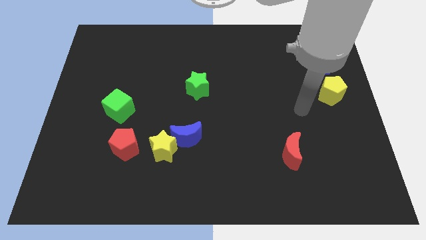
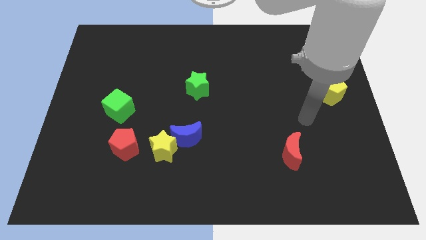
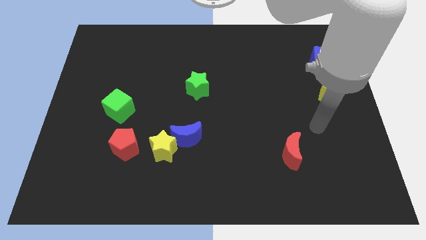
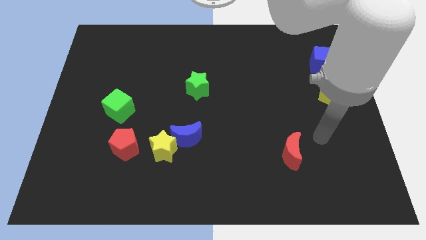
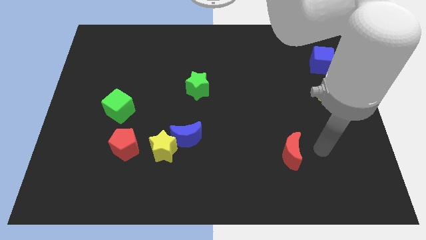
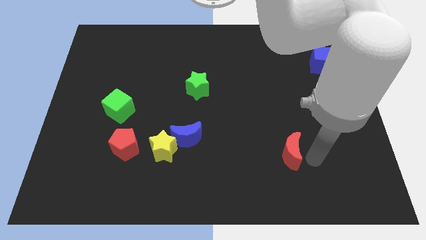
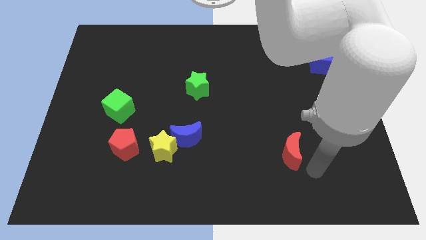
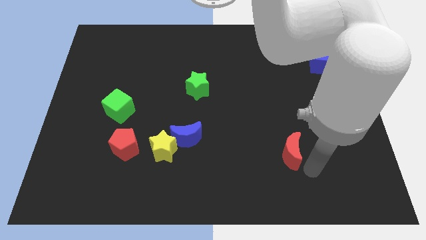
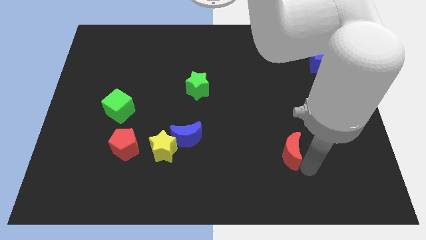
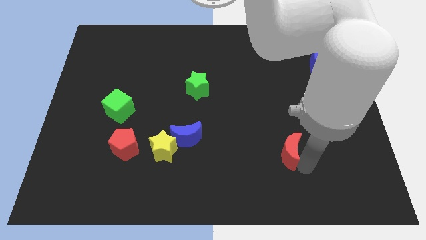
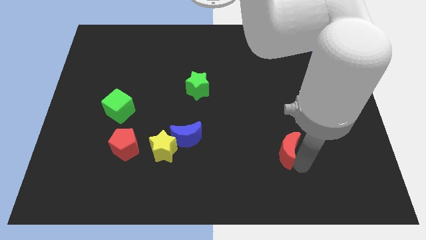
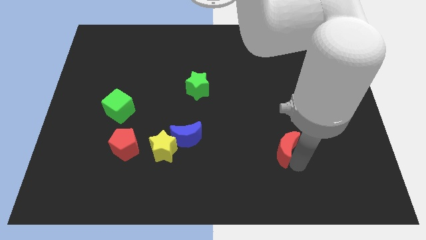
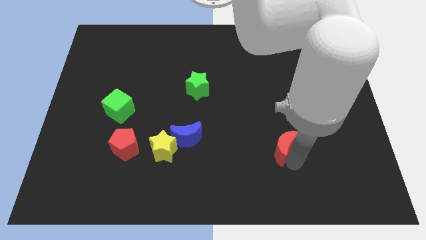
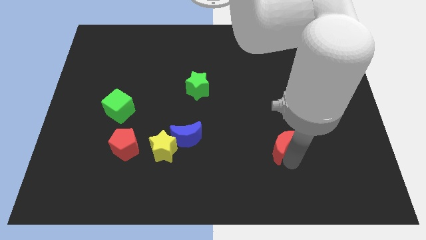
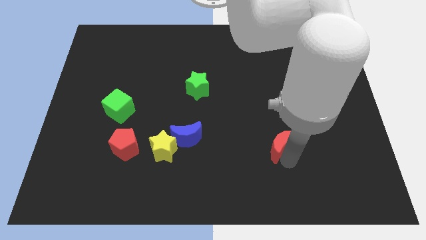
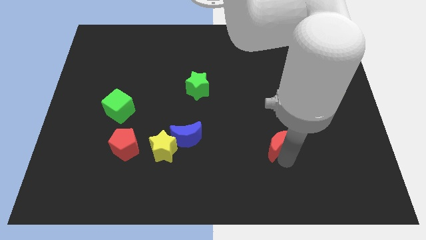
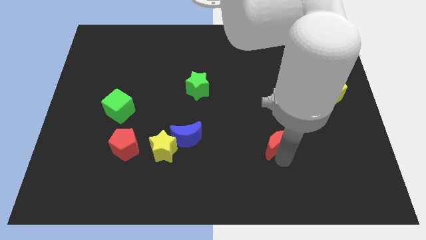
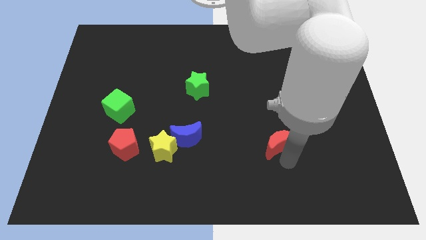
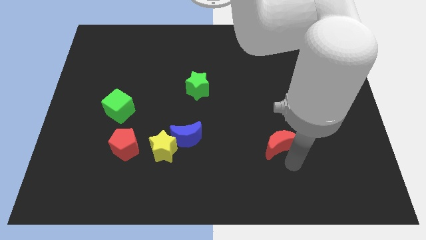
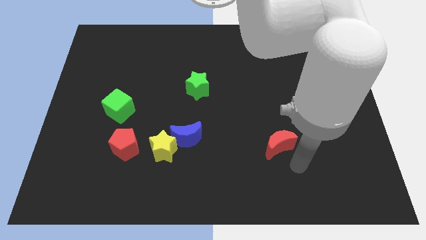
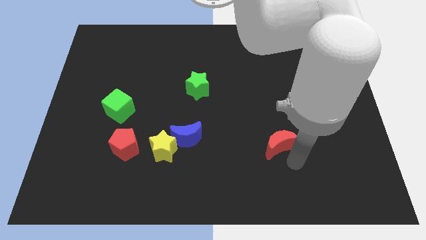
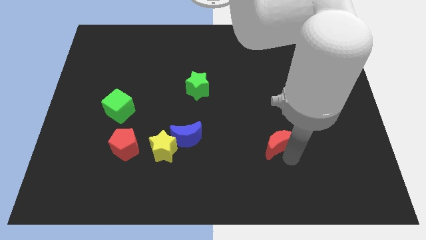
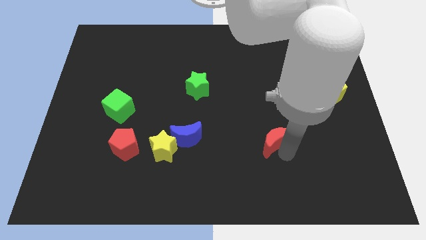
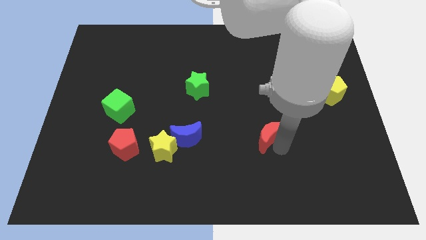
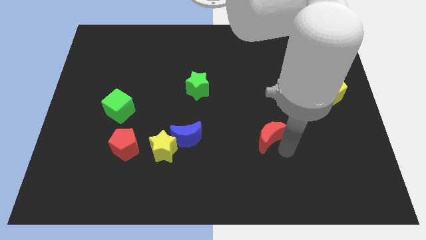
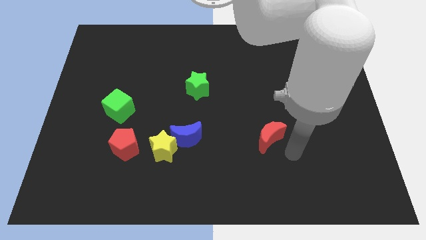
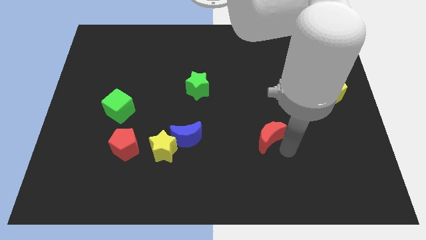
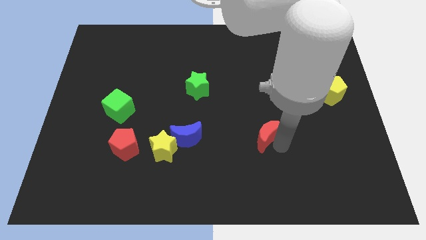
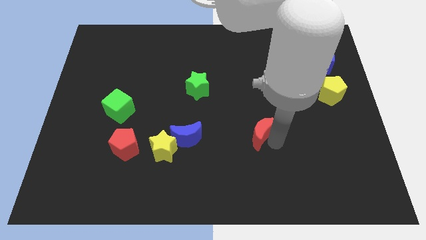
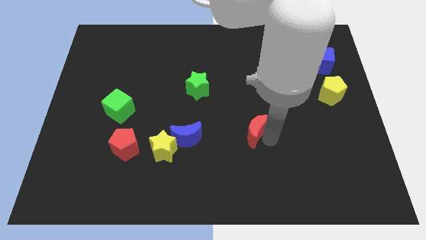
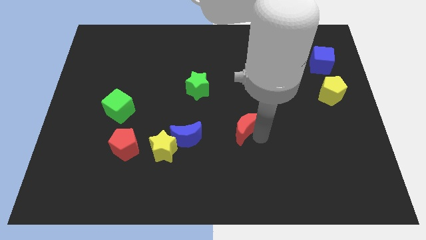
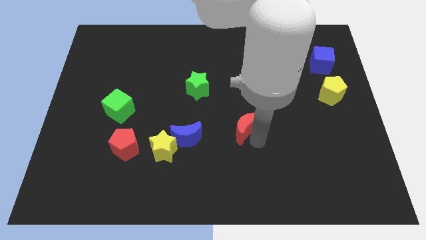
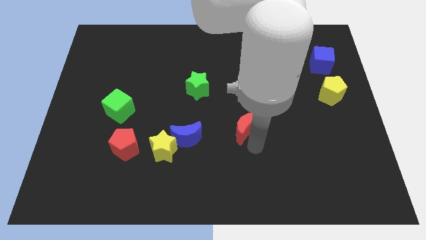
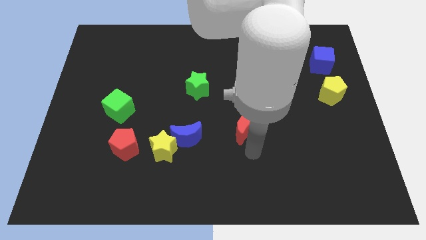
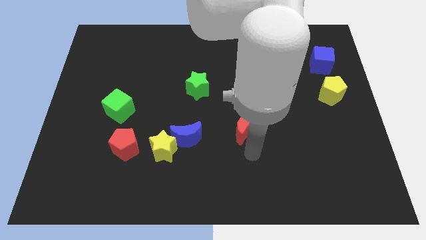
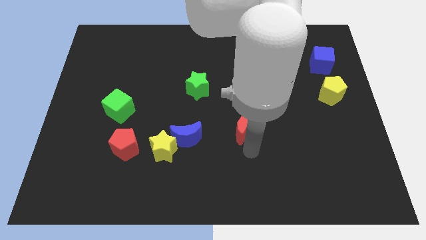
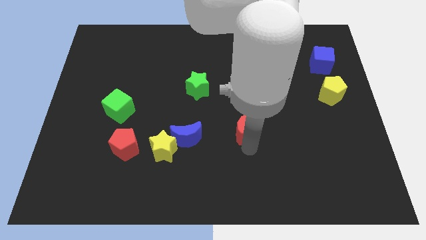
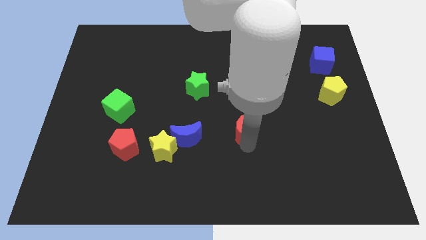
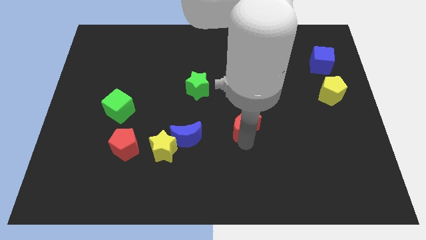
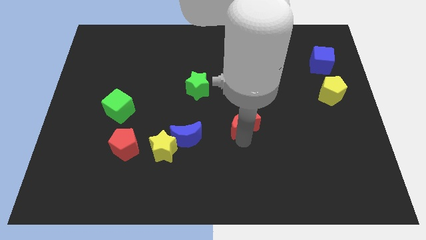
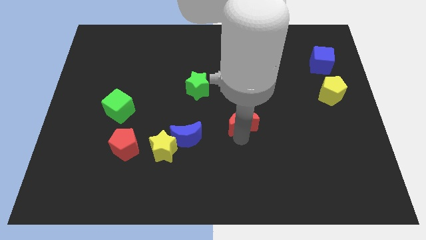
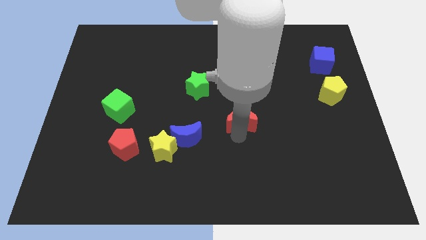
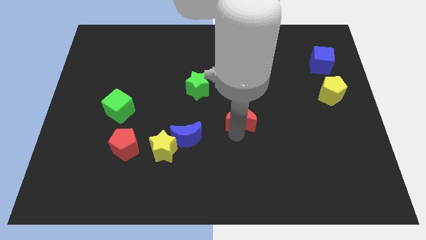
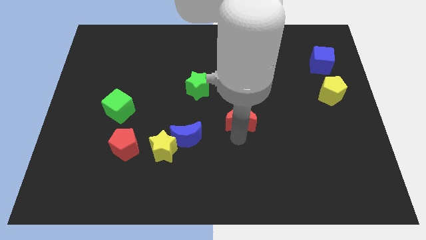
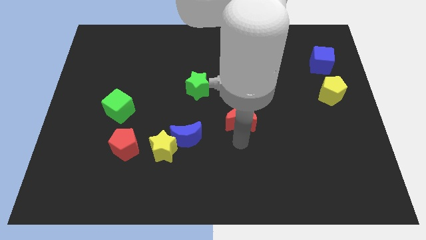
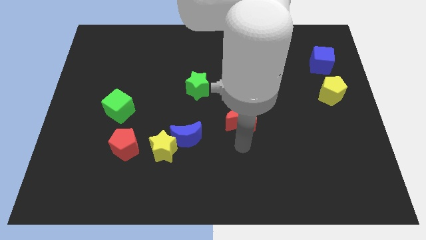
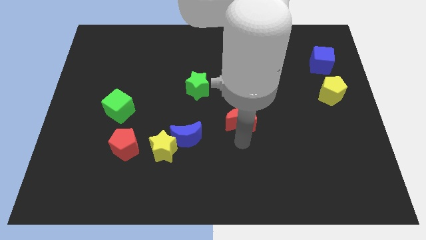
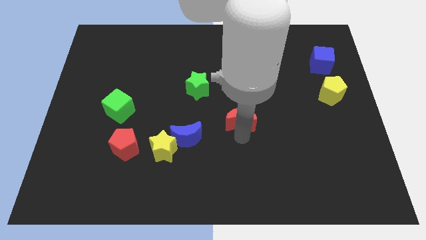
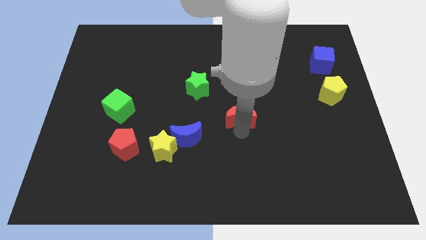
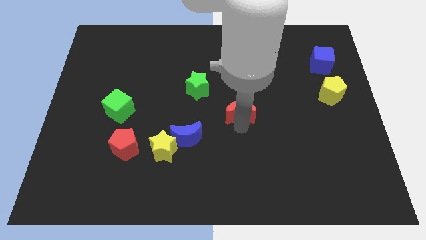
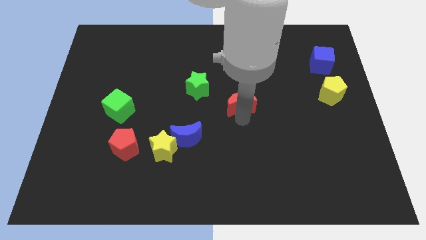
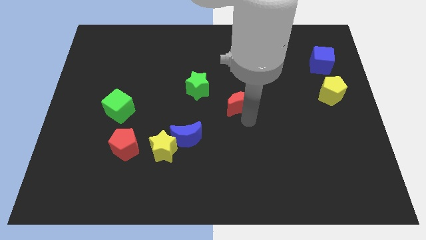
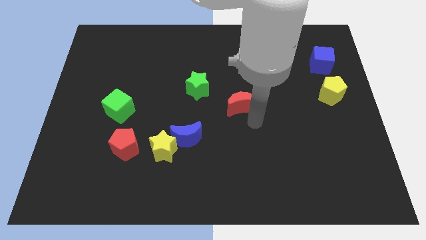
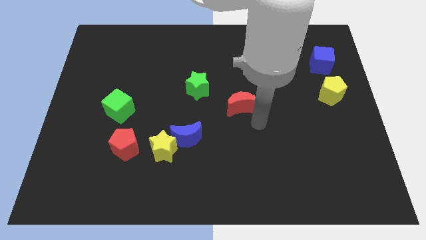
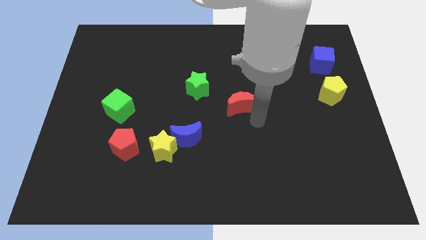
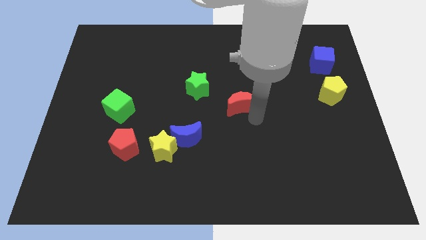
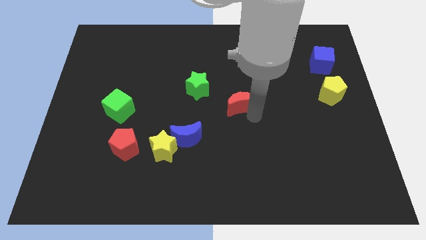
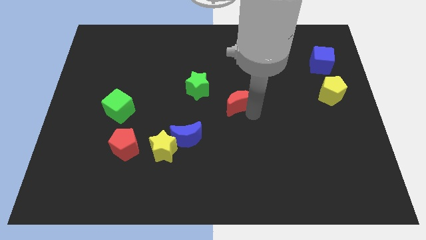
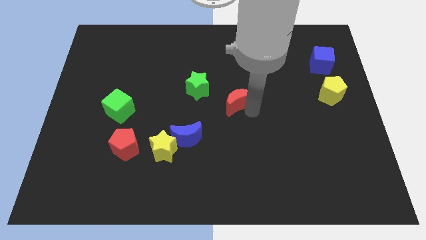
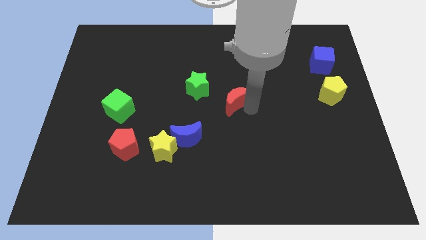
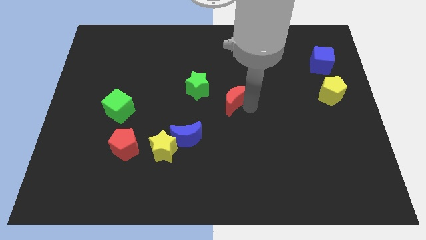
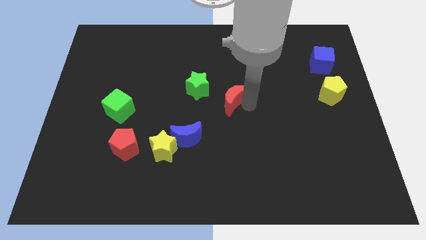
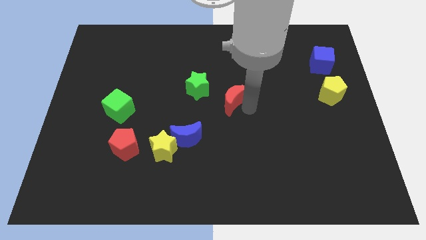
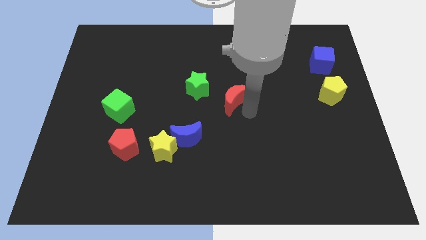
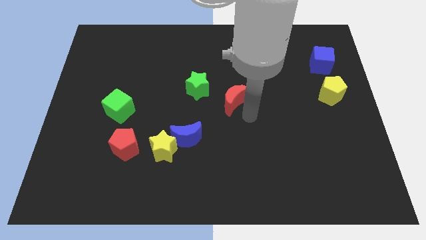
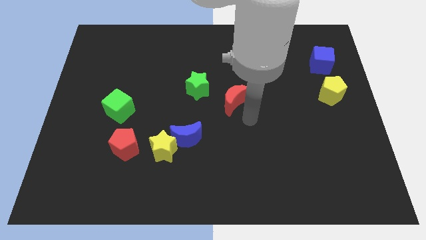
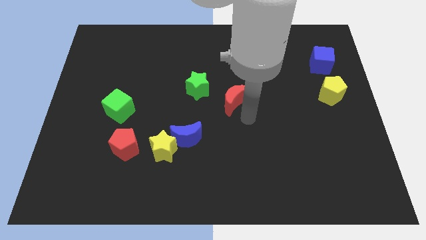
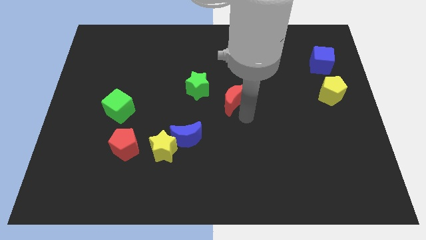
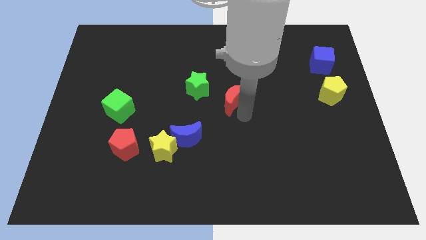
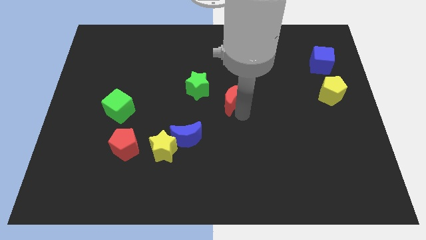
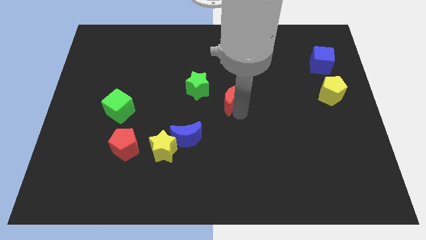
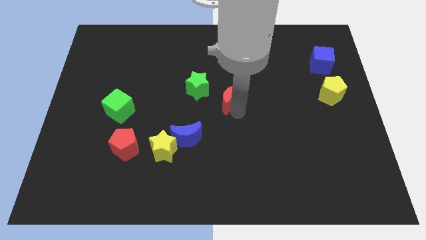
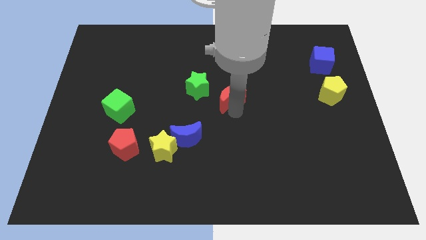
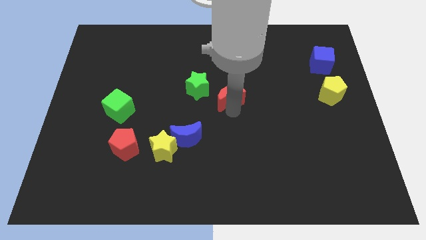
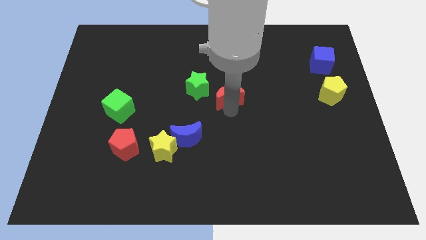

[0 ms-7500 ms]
push the red moon upwards and left diagonally

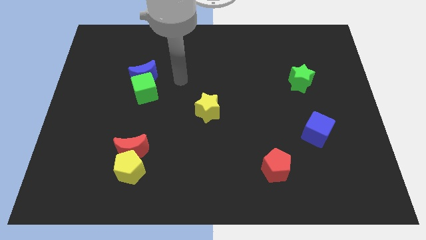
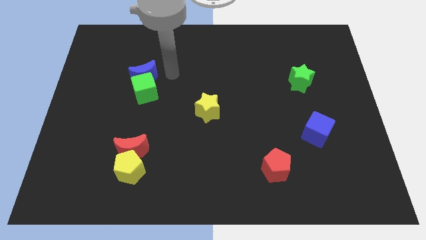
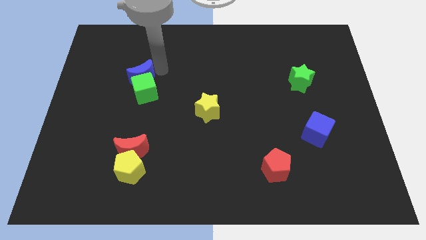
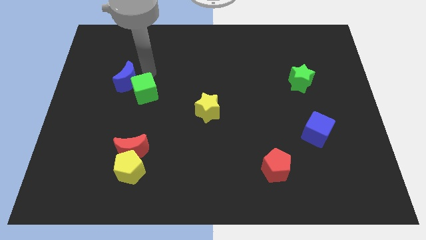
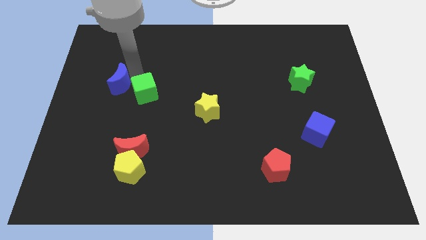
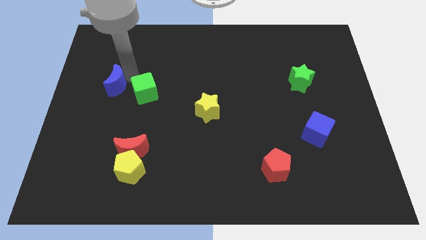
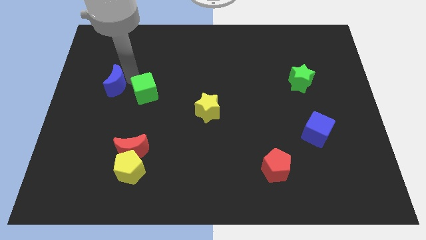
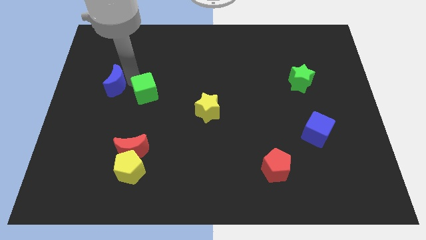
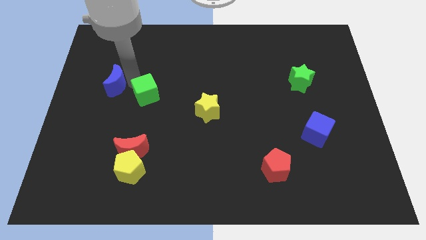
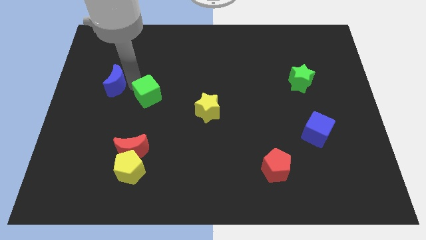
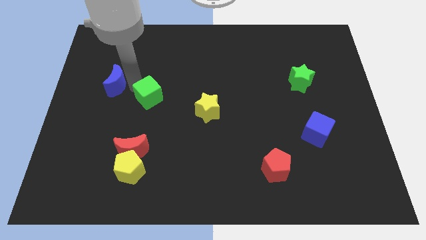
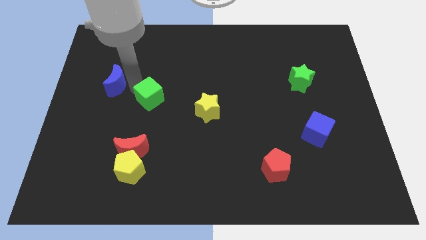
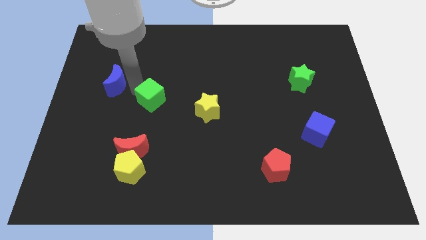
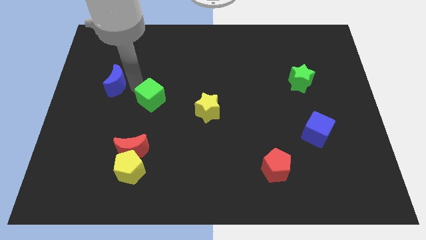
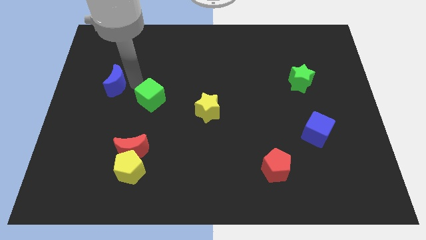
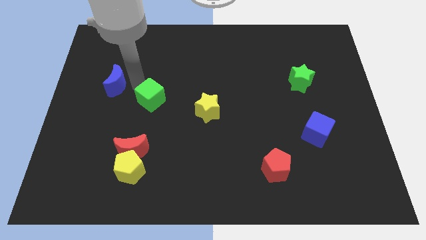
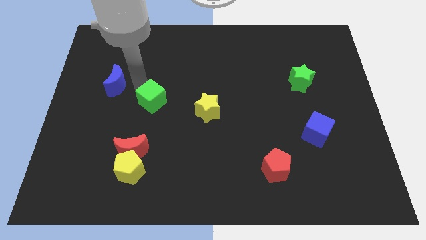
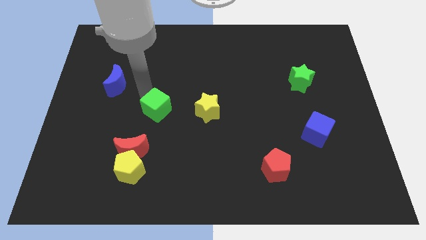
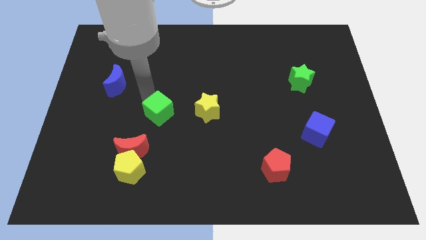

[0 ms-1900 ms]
move the green cube somewhat down and to the right diagonally
